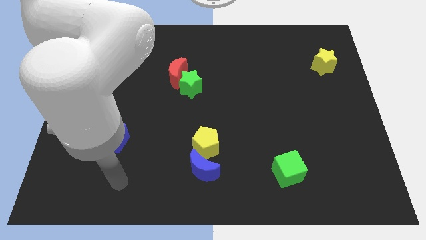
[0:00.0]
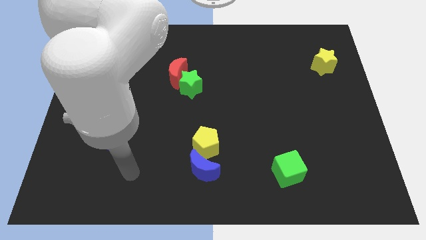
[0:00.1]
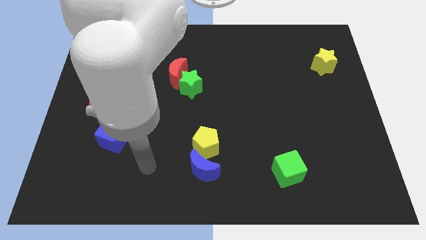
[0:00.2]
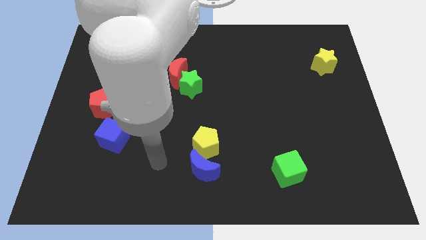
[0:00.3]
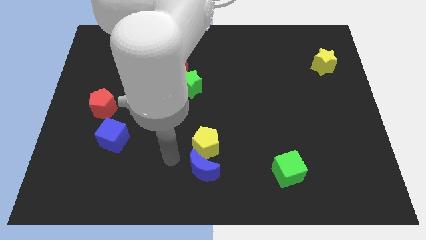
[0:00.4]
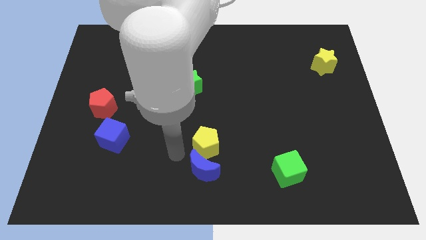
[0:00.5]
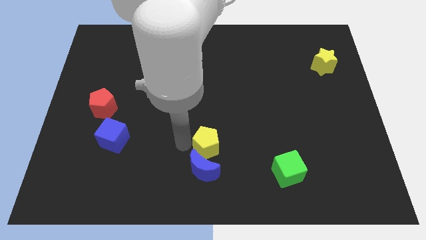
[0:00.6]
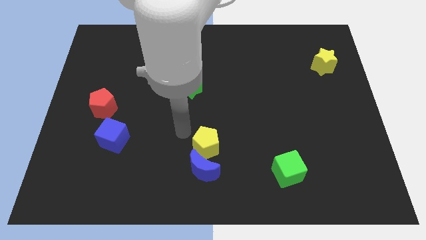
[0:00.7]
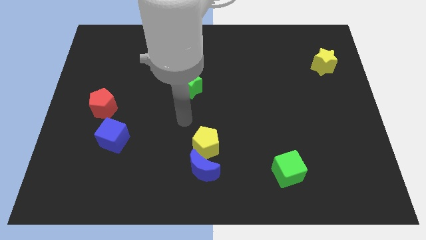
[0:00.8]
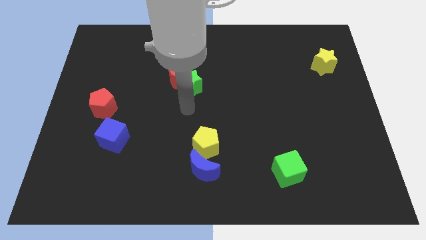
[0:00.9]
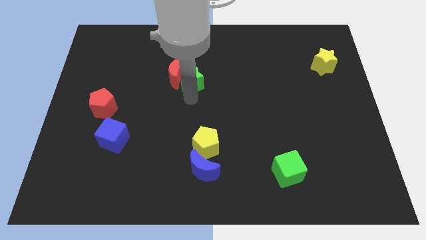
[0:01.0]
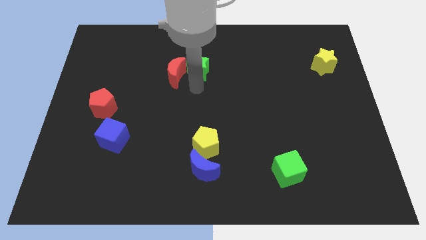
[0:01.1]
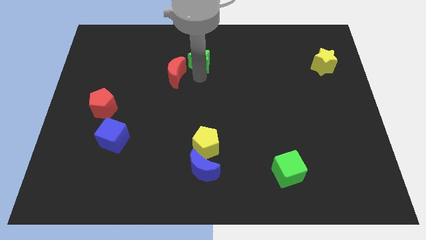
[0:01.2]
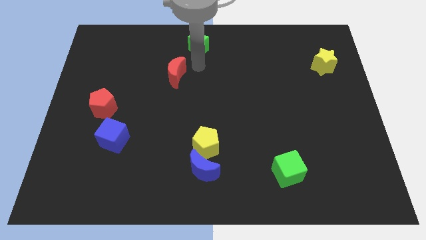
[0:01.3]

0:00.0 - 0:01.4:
move the red moon away from the green star

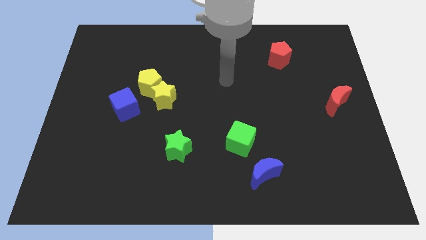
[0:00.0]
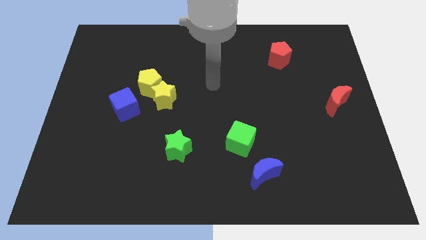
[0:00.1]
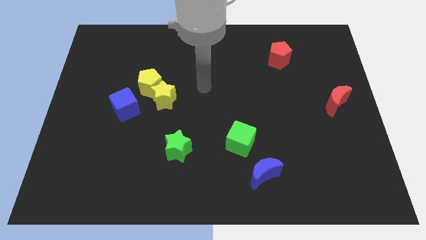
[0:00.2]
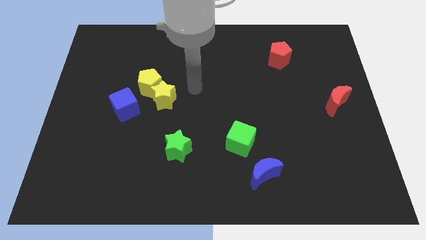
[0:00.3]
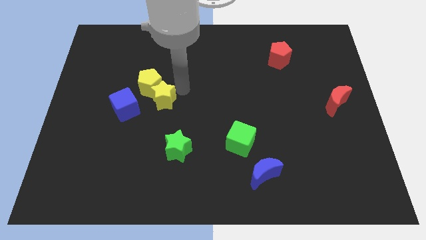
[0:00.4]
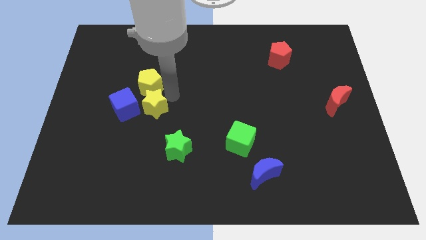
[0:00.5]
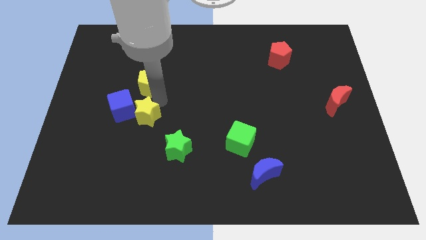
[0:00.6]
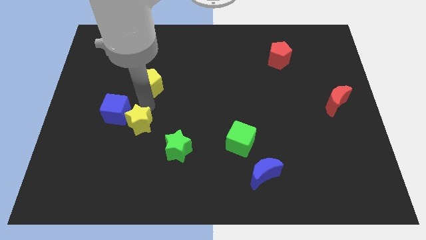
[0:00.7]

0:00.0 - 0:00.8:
separate the yellow pentagon from the yellow star and blue cube

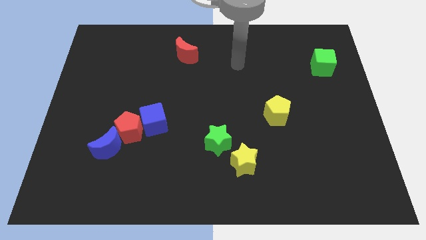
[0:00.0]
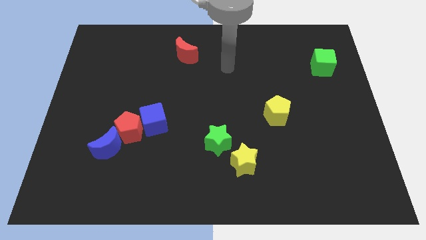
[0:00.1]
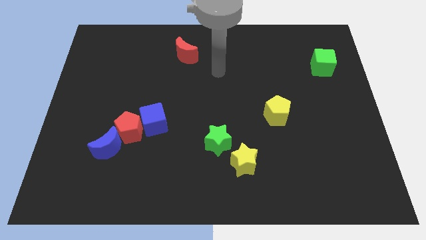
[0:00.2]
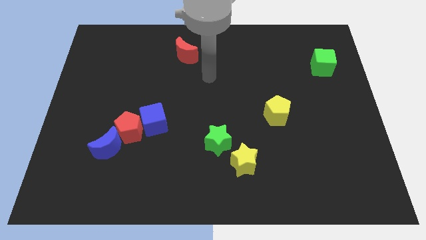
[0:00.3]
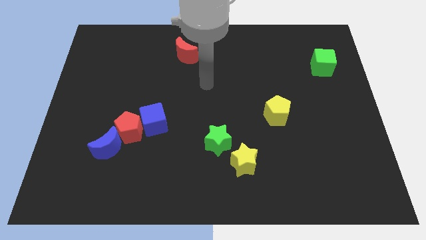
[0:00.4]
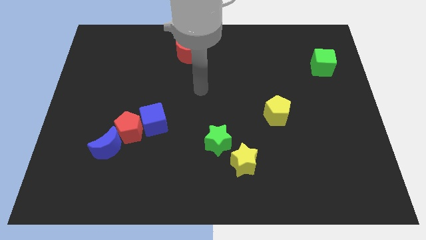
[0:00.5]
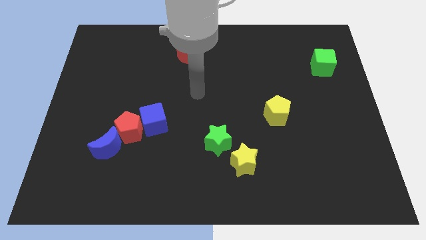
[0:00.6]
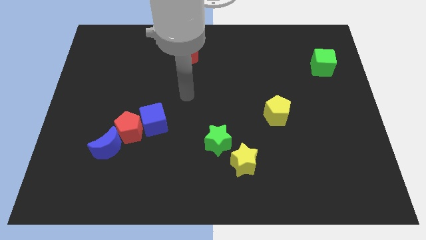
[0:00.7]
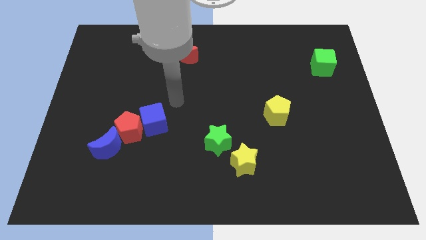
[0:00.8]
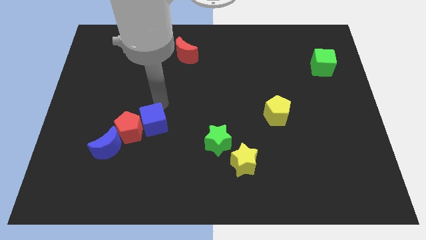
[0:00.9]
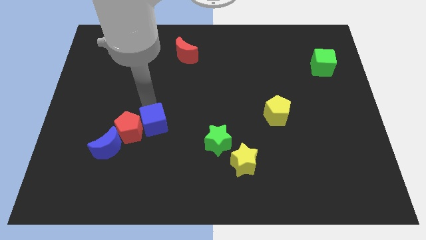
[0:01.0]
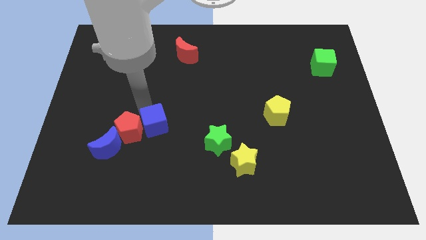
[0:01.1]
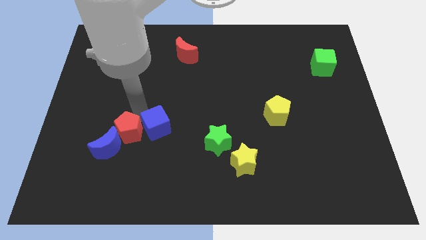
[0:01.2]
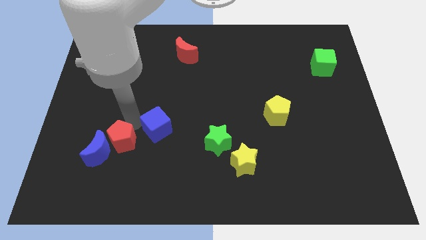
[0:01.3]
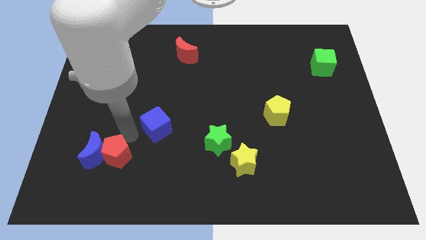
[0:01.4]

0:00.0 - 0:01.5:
pull the blue cube apart from the red pentagon

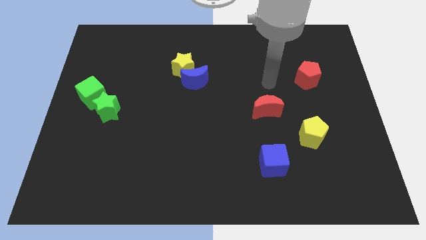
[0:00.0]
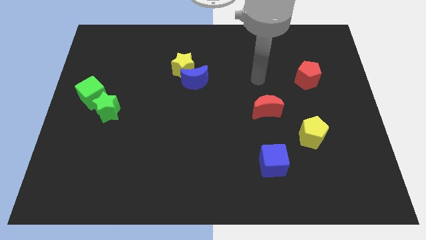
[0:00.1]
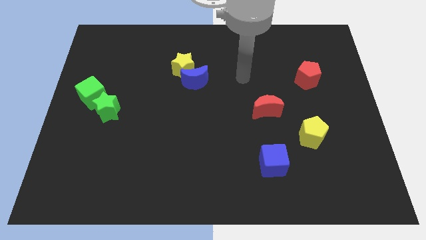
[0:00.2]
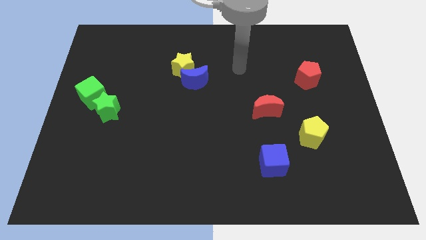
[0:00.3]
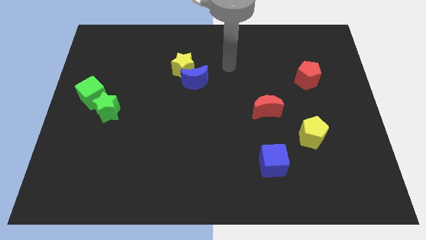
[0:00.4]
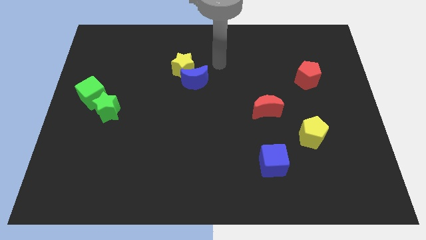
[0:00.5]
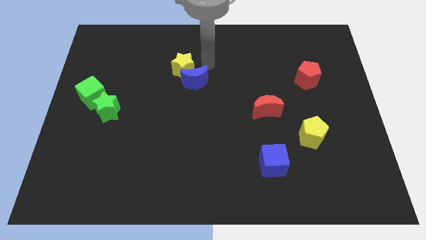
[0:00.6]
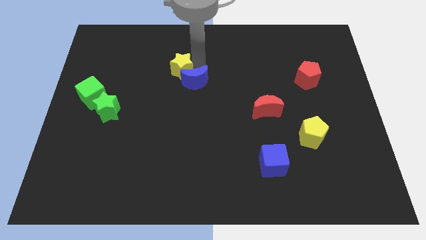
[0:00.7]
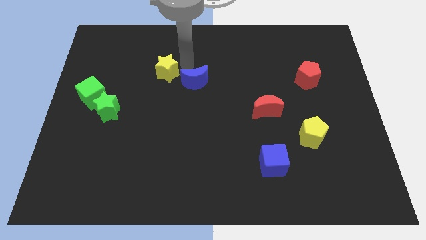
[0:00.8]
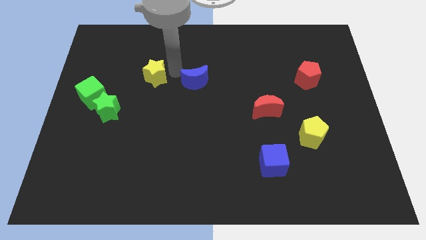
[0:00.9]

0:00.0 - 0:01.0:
move the blue moon away from the yellow star

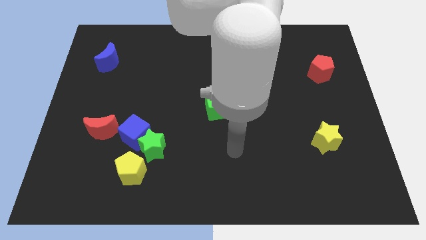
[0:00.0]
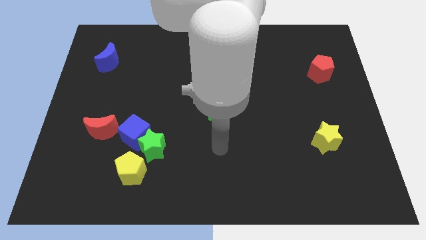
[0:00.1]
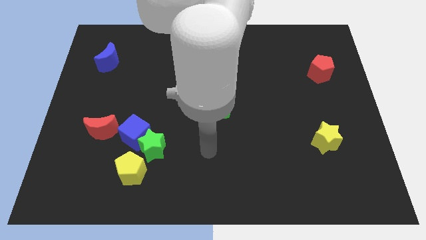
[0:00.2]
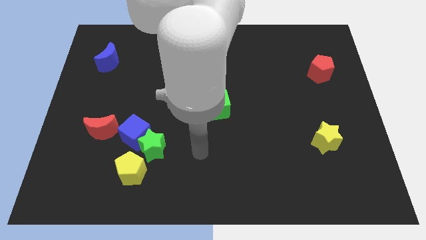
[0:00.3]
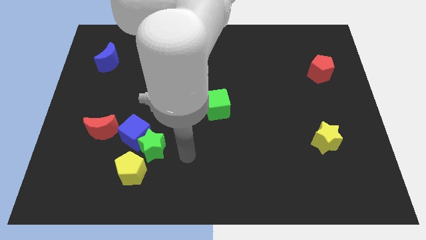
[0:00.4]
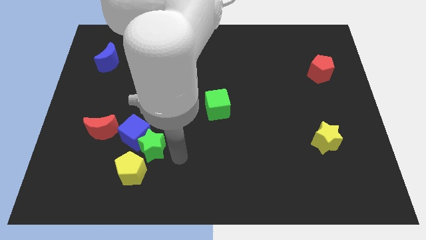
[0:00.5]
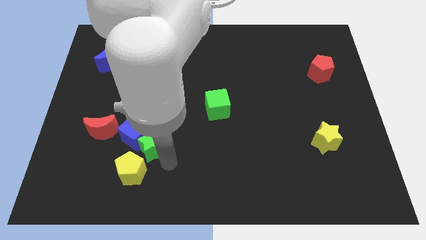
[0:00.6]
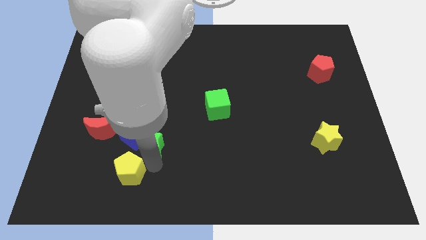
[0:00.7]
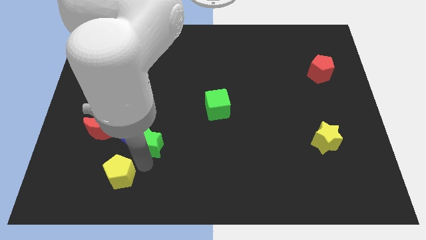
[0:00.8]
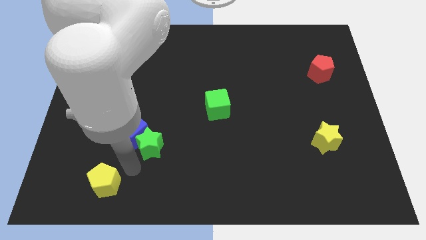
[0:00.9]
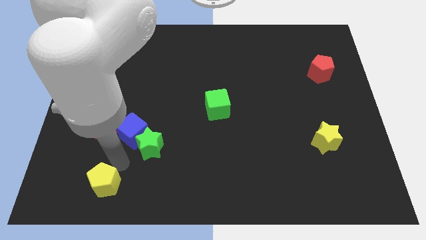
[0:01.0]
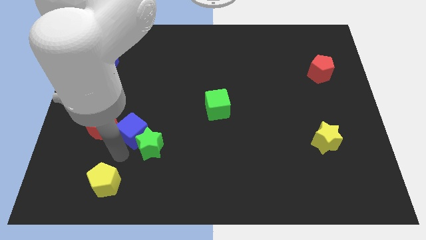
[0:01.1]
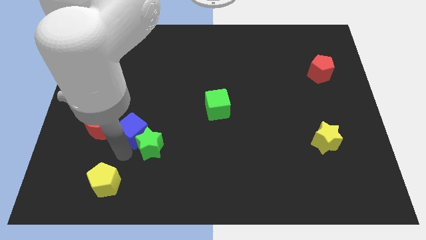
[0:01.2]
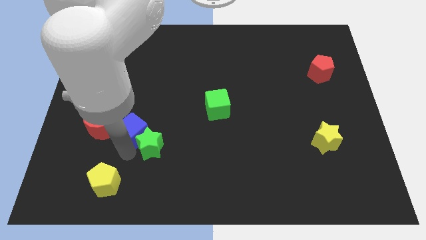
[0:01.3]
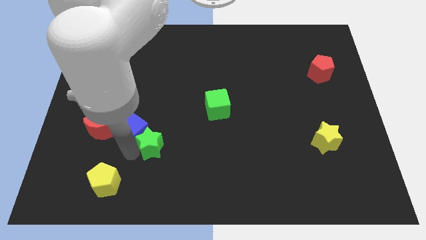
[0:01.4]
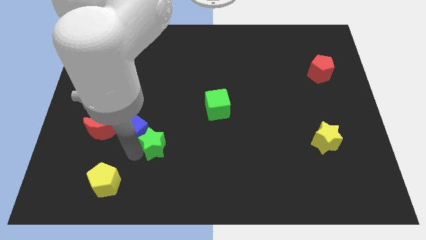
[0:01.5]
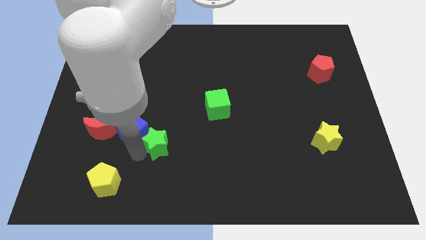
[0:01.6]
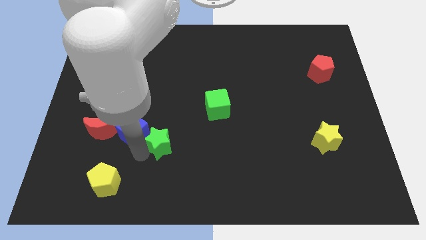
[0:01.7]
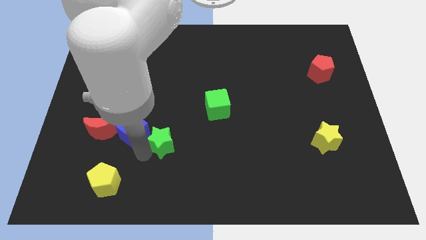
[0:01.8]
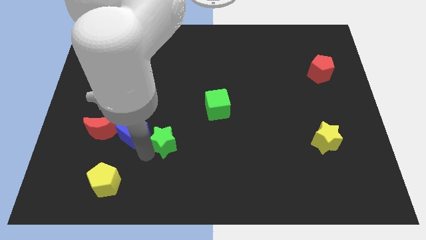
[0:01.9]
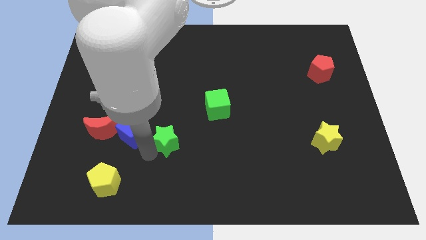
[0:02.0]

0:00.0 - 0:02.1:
move the green star away from the blue cube and yellow pentagon

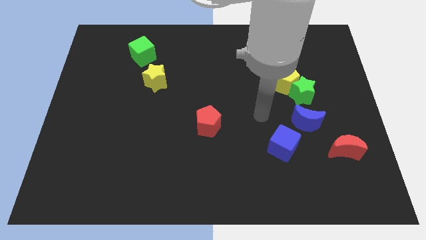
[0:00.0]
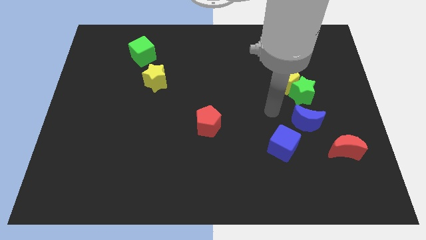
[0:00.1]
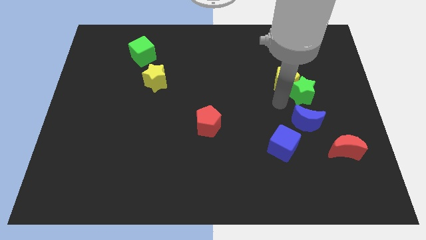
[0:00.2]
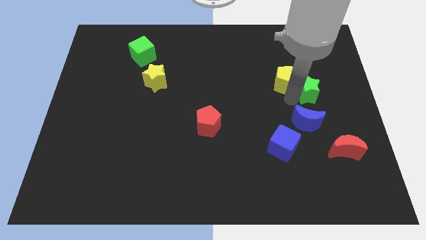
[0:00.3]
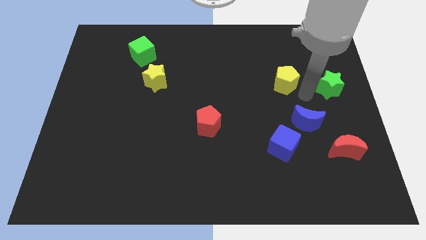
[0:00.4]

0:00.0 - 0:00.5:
move the yellow pentagon away from the green star

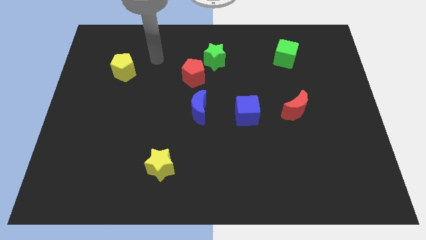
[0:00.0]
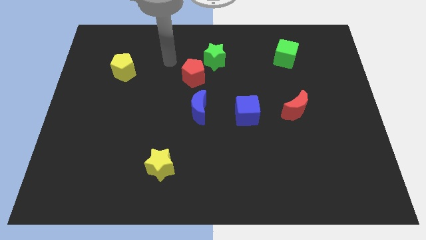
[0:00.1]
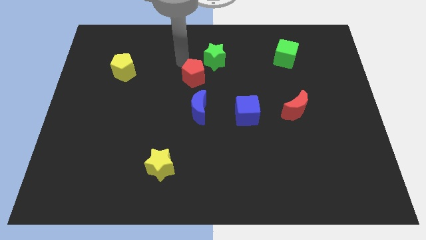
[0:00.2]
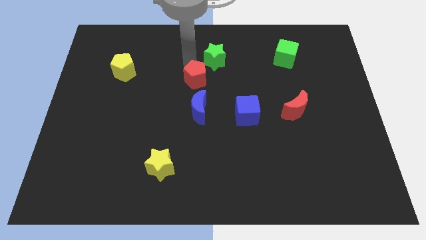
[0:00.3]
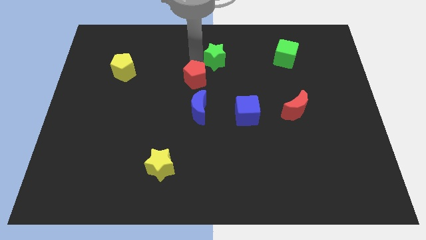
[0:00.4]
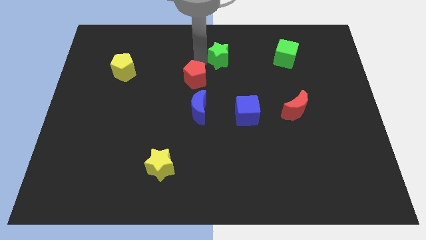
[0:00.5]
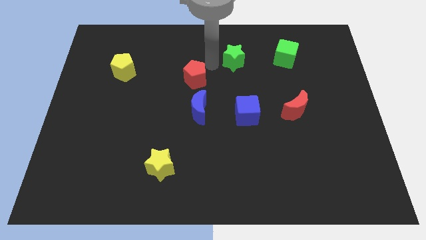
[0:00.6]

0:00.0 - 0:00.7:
separate the red pentagon from the green star

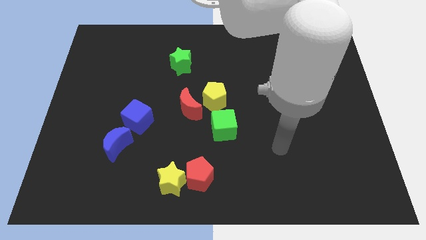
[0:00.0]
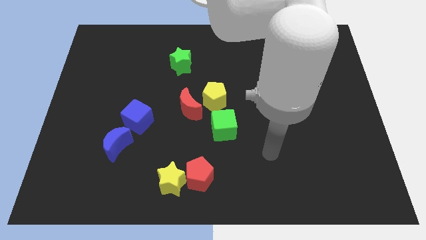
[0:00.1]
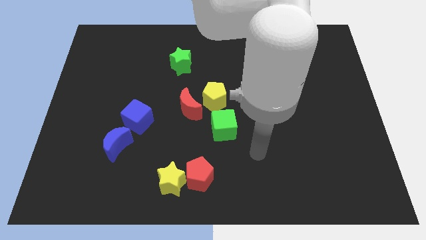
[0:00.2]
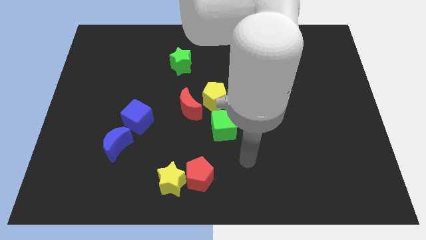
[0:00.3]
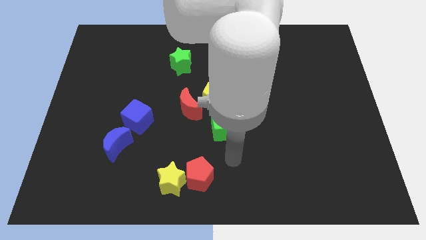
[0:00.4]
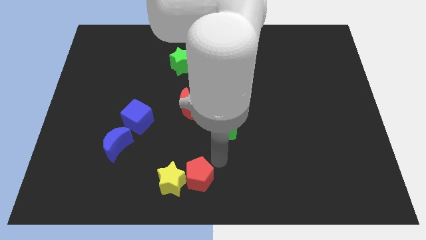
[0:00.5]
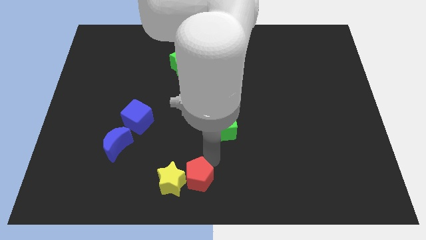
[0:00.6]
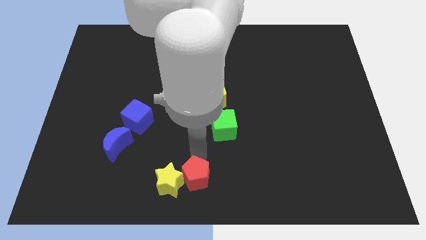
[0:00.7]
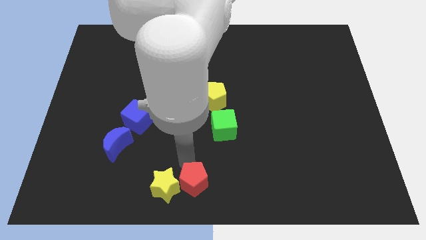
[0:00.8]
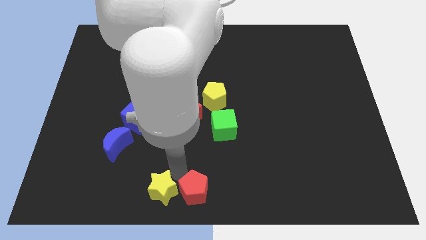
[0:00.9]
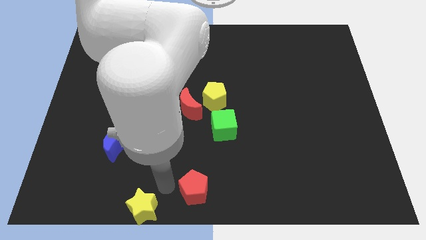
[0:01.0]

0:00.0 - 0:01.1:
separate the red pentagon from the yellow star

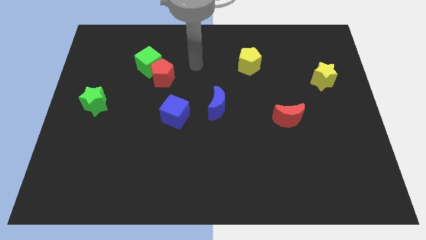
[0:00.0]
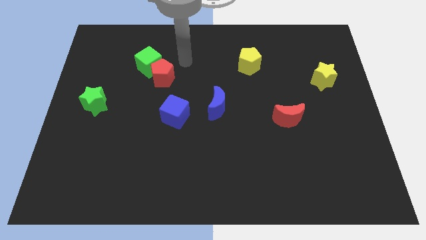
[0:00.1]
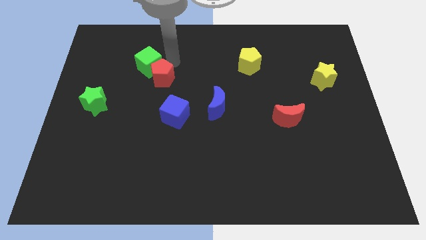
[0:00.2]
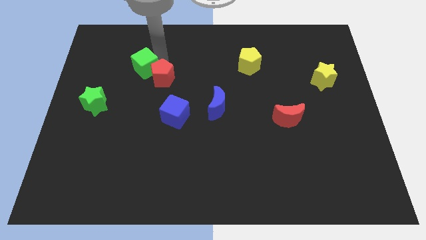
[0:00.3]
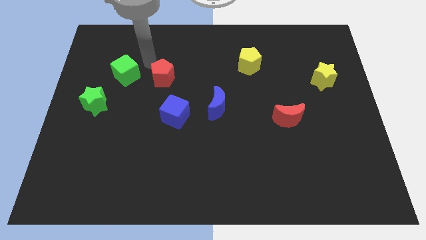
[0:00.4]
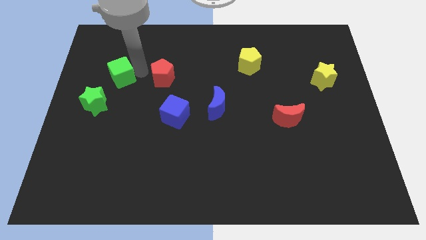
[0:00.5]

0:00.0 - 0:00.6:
move the red pentagon away from the green cube
